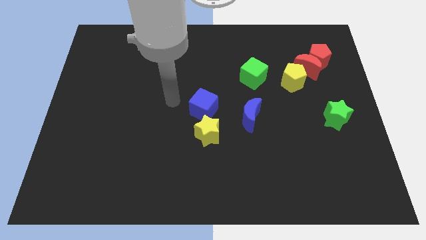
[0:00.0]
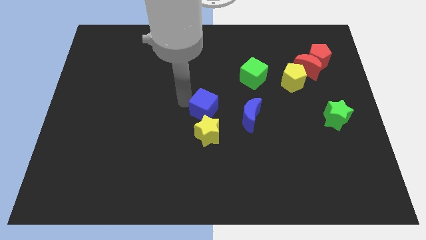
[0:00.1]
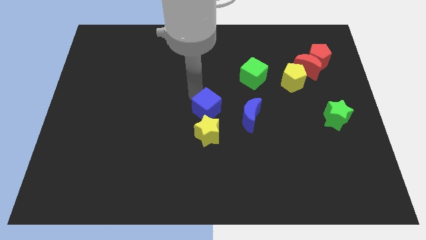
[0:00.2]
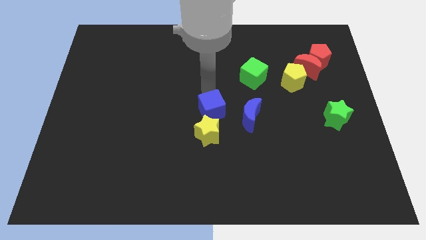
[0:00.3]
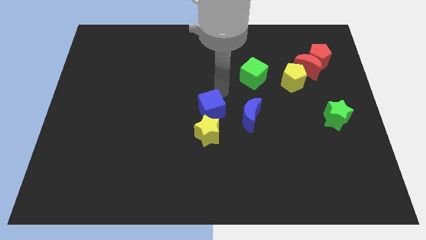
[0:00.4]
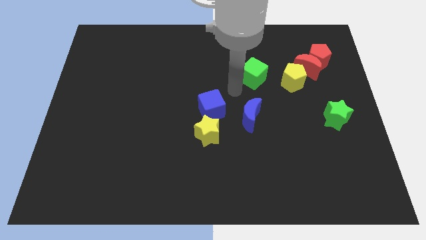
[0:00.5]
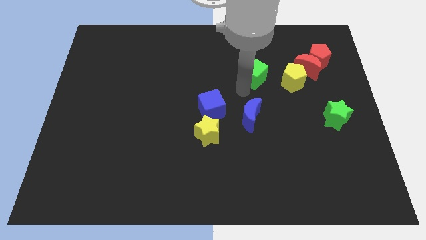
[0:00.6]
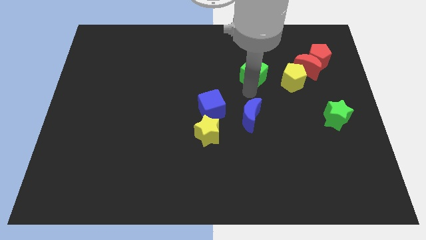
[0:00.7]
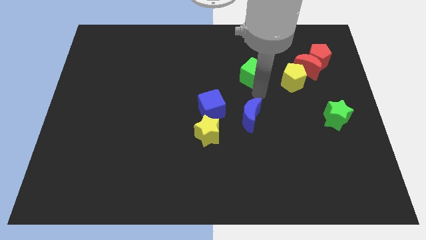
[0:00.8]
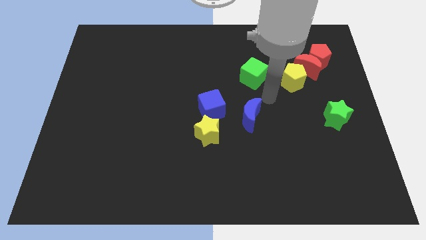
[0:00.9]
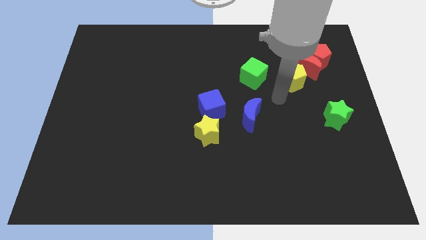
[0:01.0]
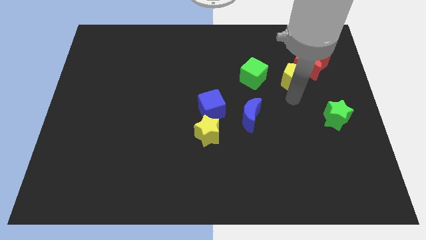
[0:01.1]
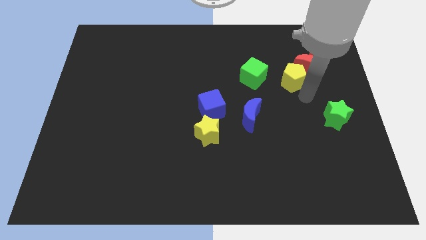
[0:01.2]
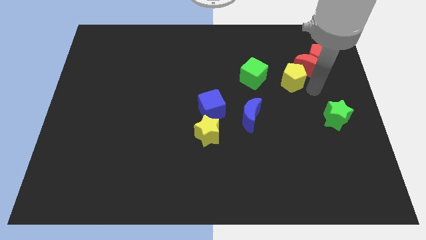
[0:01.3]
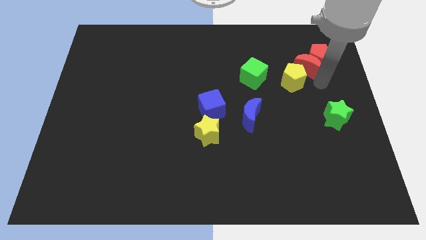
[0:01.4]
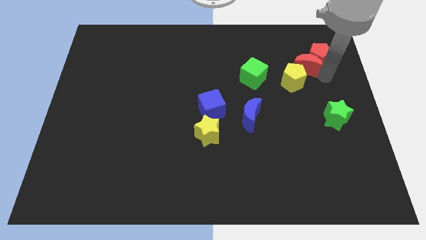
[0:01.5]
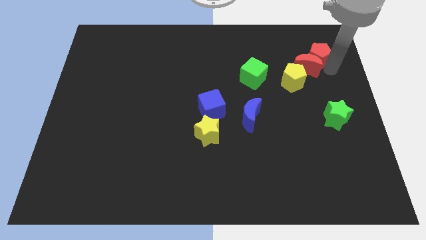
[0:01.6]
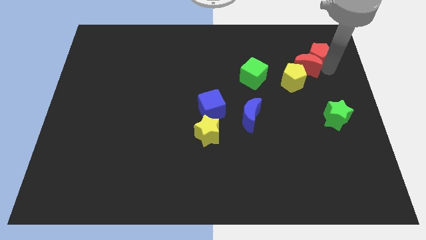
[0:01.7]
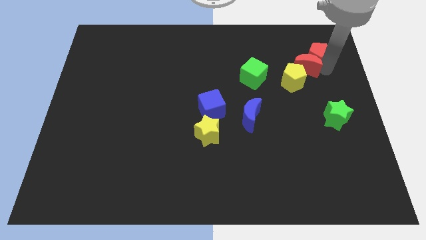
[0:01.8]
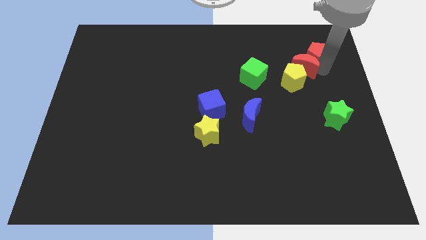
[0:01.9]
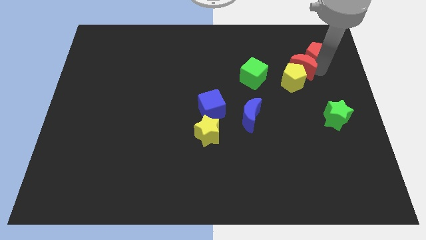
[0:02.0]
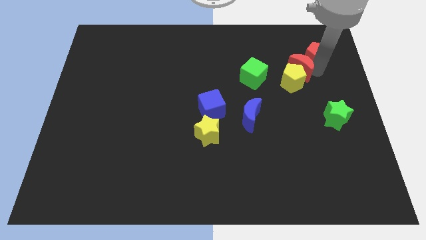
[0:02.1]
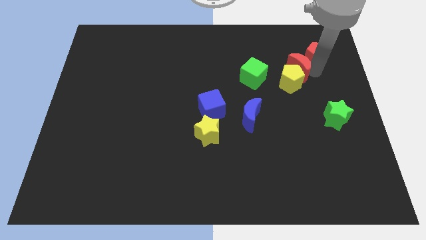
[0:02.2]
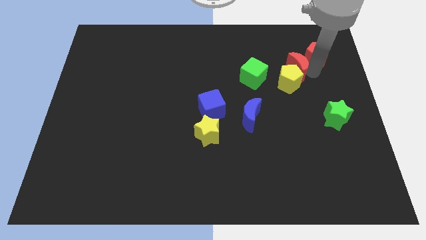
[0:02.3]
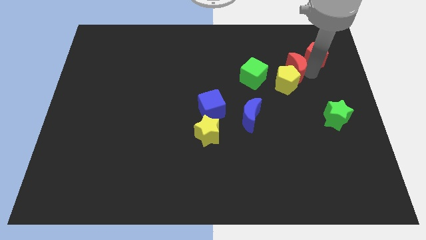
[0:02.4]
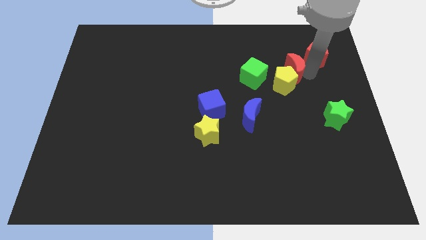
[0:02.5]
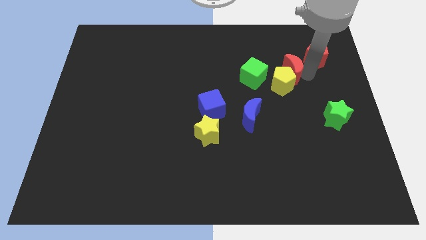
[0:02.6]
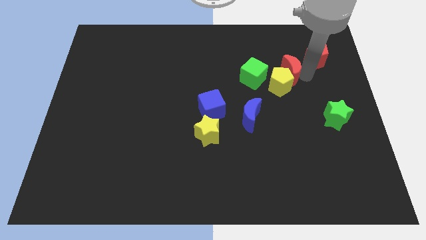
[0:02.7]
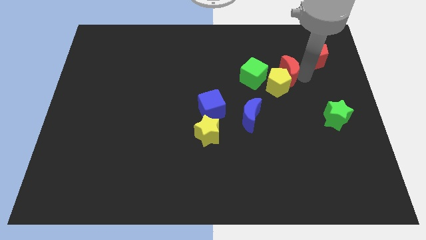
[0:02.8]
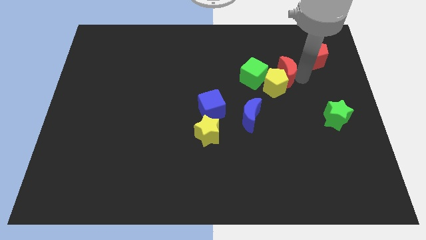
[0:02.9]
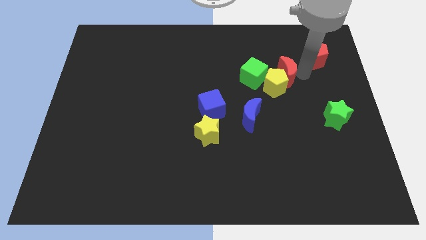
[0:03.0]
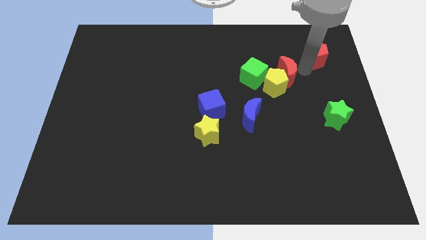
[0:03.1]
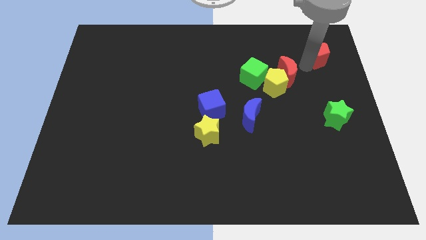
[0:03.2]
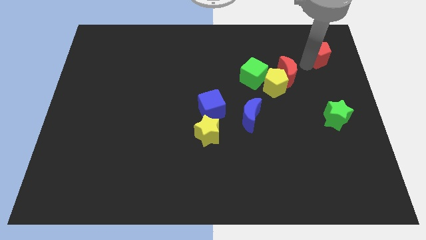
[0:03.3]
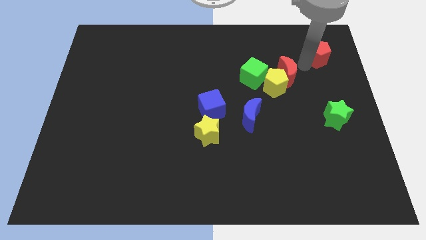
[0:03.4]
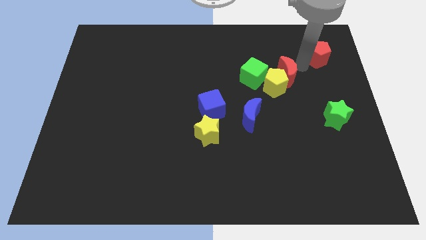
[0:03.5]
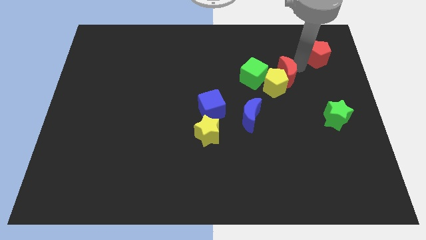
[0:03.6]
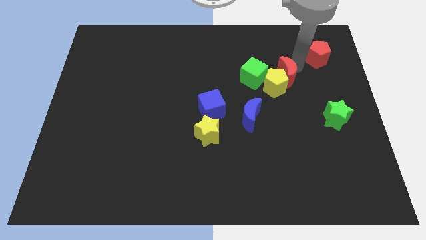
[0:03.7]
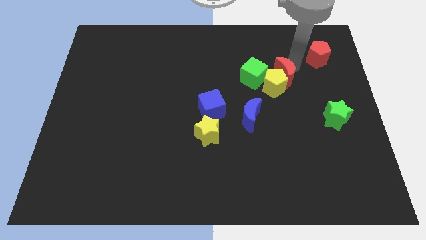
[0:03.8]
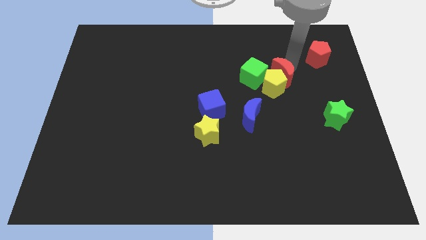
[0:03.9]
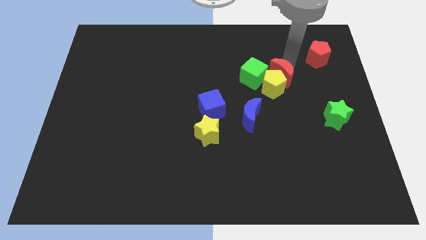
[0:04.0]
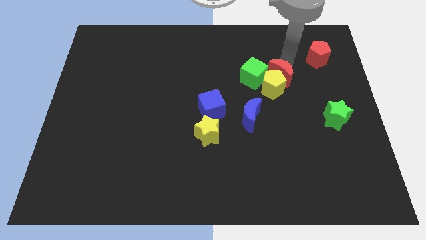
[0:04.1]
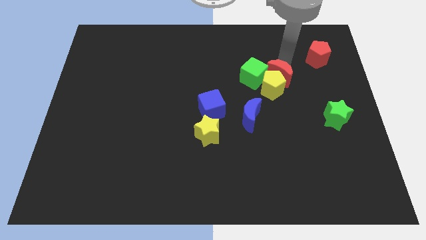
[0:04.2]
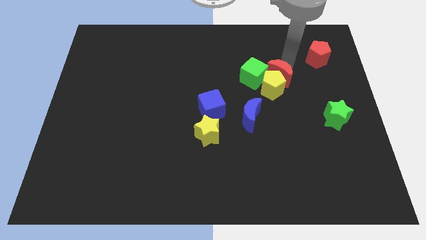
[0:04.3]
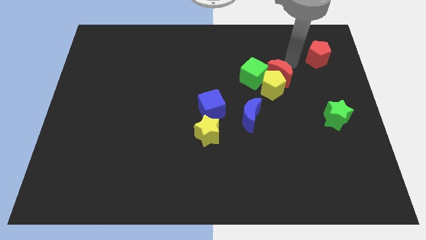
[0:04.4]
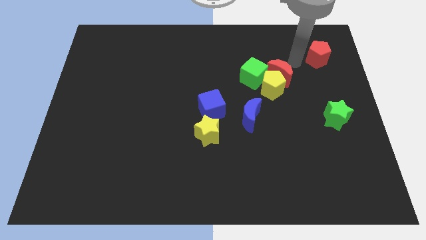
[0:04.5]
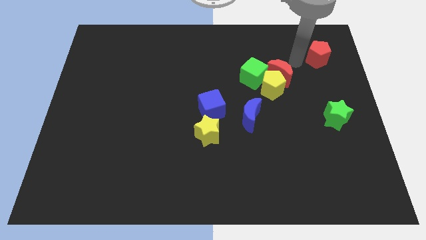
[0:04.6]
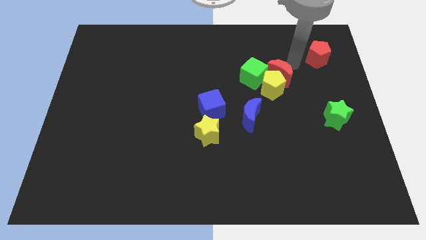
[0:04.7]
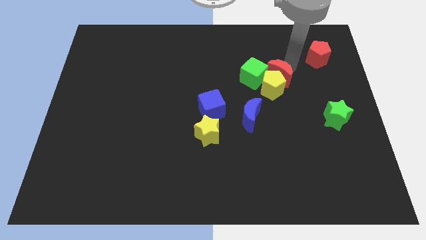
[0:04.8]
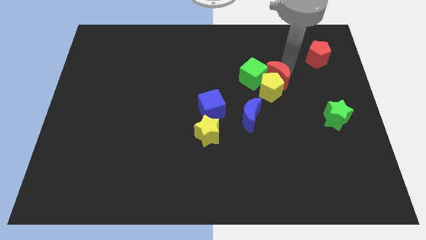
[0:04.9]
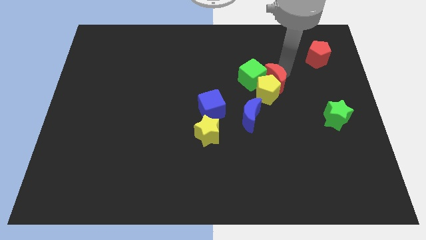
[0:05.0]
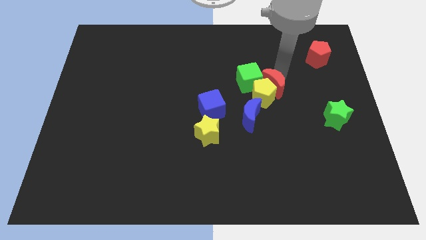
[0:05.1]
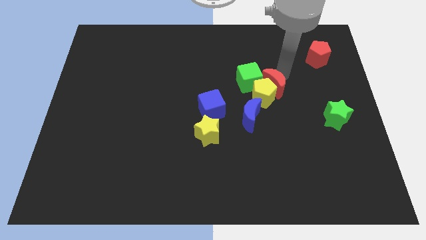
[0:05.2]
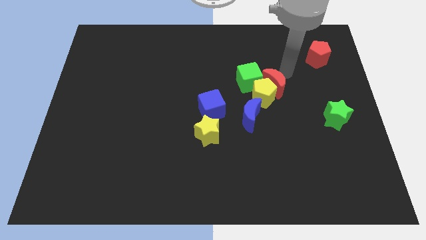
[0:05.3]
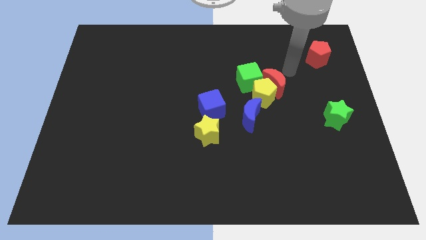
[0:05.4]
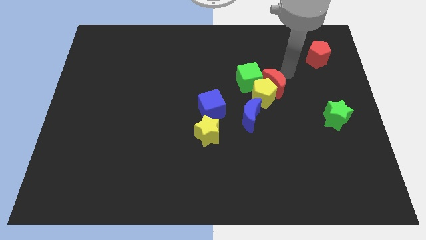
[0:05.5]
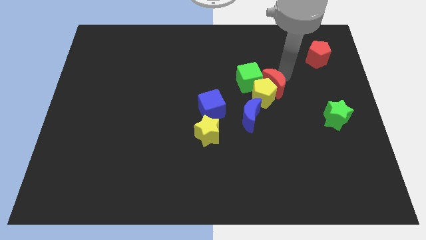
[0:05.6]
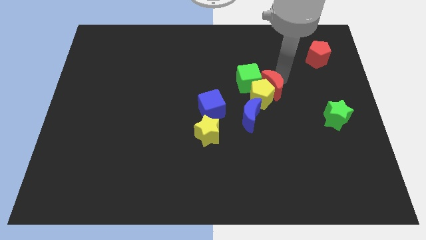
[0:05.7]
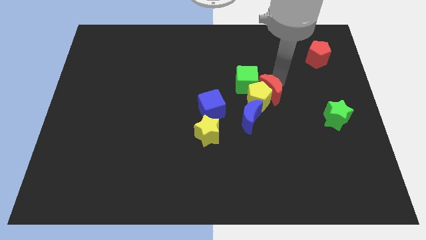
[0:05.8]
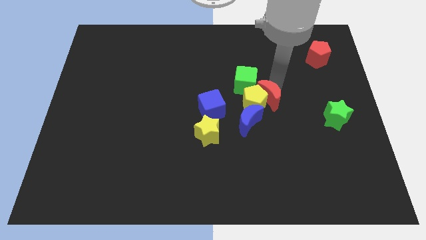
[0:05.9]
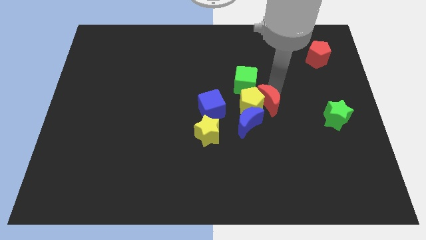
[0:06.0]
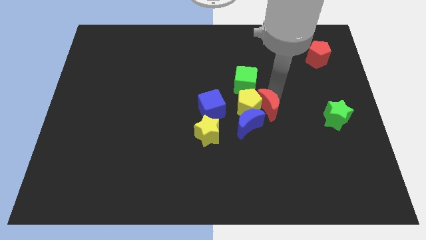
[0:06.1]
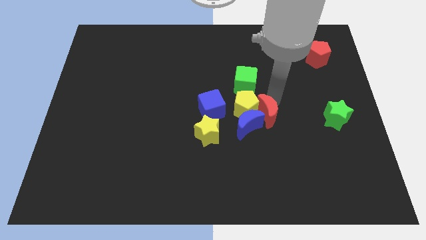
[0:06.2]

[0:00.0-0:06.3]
put the red moon towards the blue moon

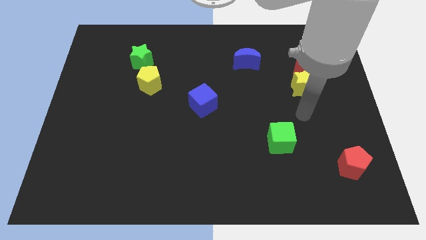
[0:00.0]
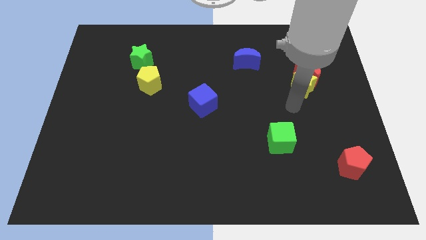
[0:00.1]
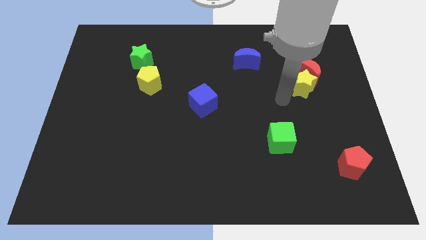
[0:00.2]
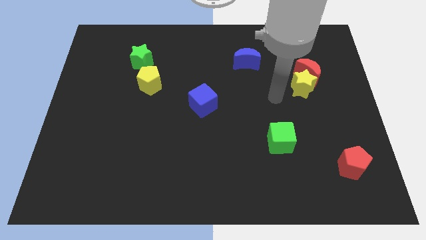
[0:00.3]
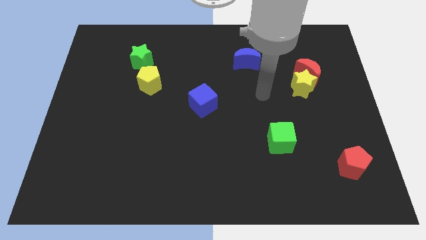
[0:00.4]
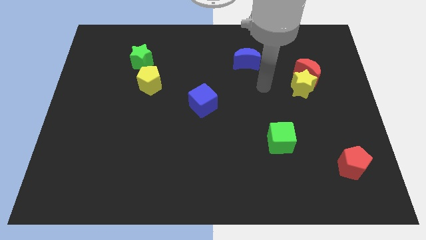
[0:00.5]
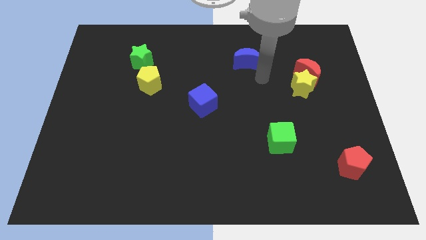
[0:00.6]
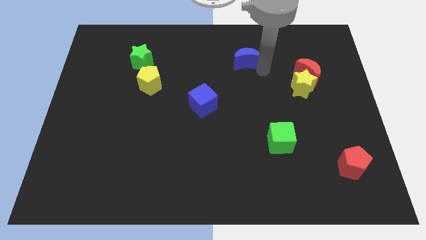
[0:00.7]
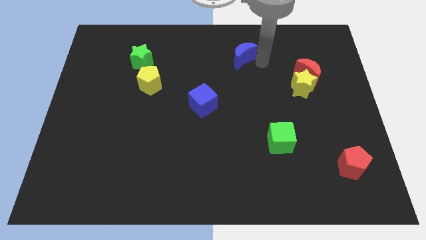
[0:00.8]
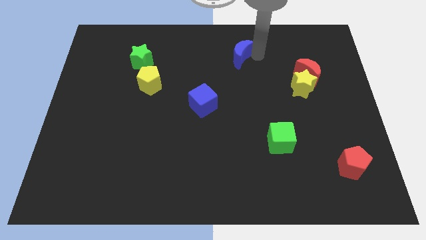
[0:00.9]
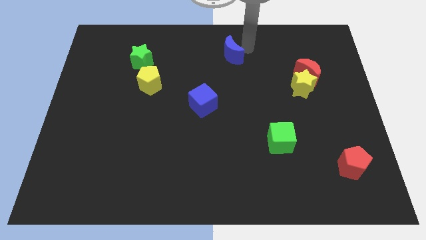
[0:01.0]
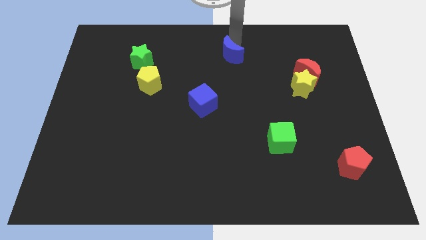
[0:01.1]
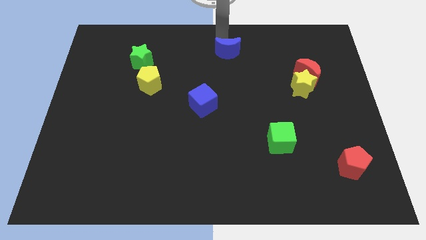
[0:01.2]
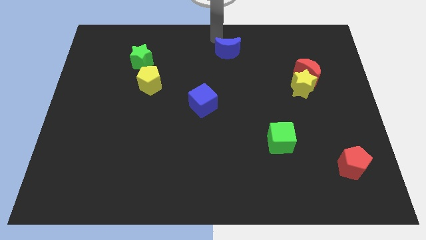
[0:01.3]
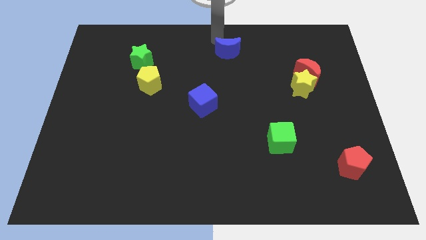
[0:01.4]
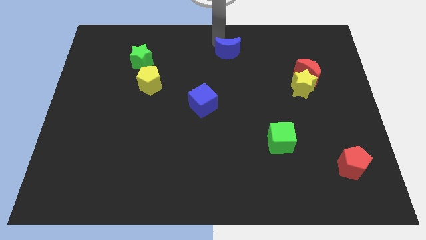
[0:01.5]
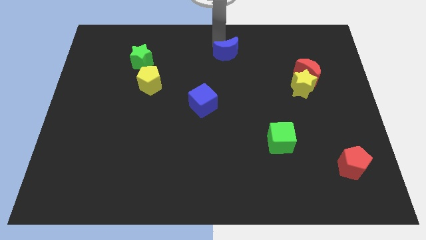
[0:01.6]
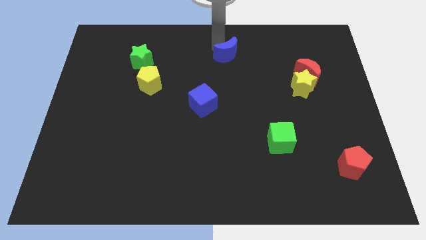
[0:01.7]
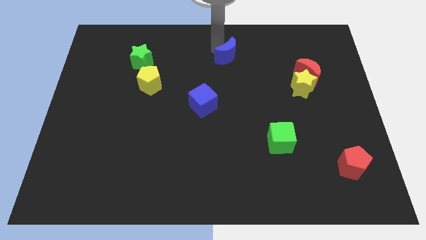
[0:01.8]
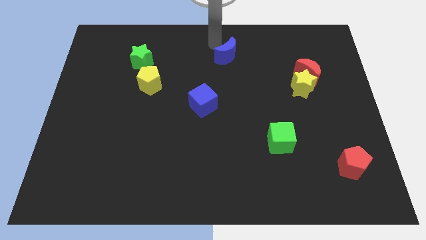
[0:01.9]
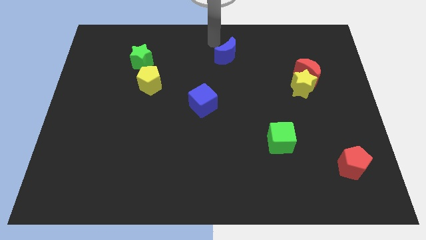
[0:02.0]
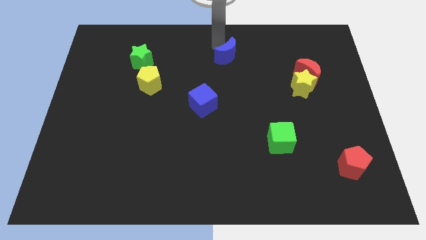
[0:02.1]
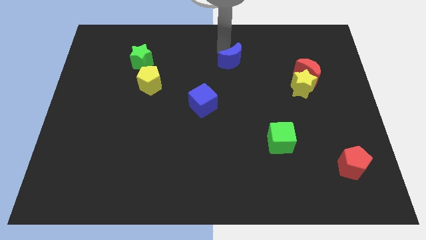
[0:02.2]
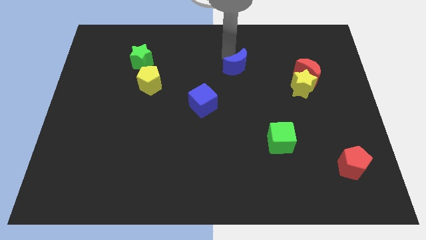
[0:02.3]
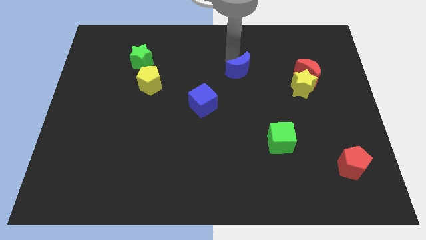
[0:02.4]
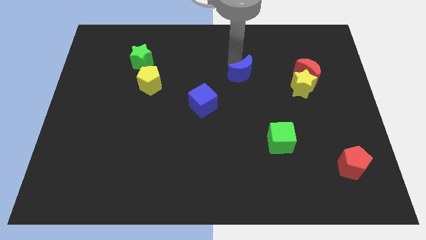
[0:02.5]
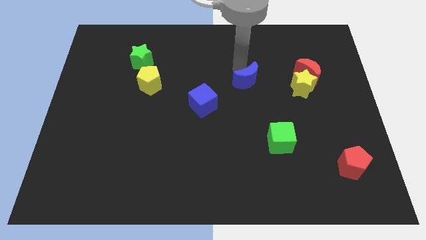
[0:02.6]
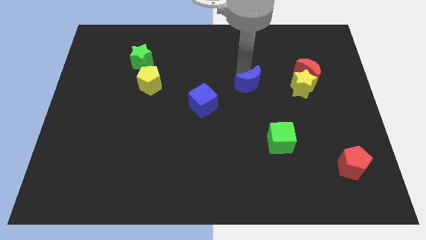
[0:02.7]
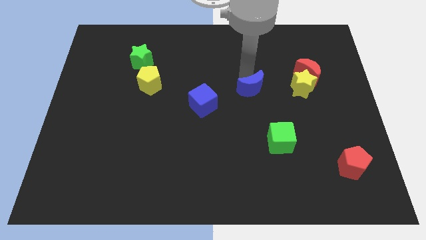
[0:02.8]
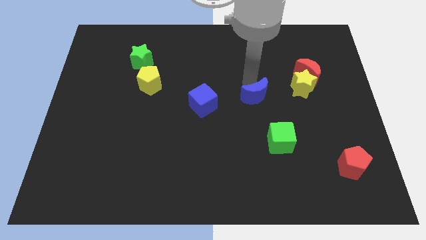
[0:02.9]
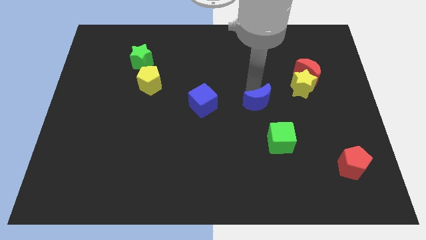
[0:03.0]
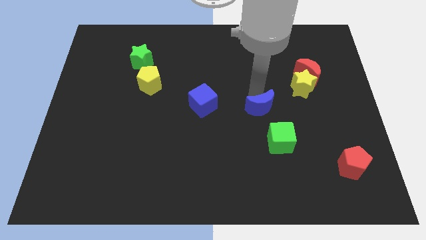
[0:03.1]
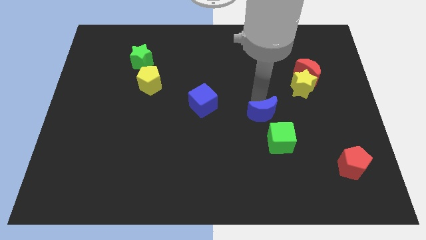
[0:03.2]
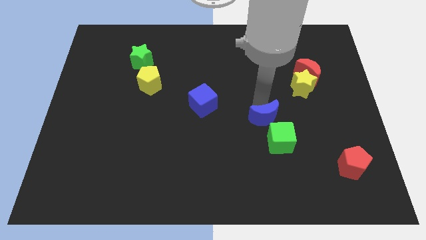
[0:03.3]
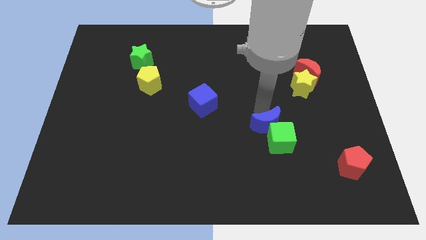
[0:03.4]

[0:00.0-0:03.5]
push the blue moon close to the green cube
